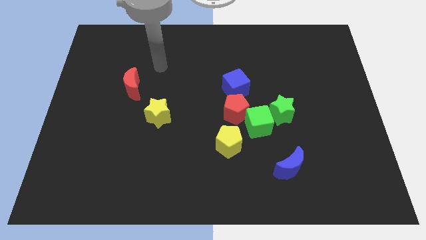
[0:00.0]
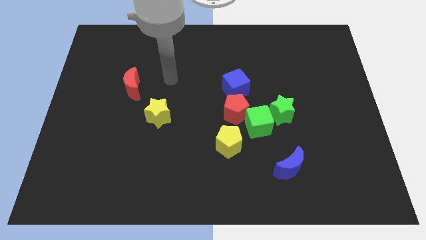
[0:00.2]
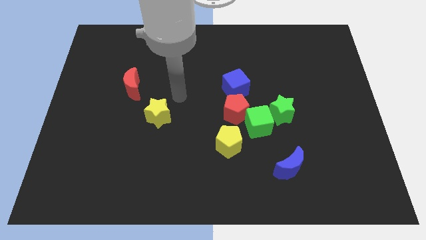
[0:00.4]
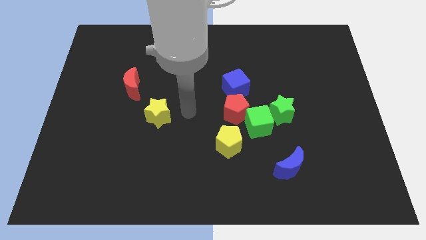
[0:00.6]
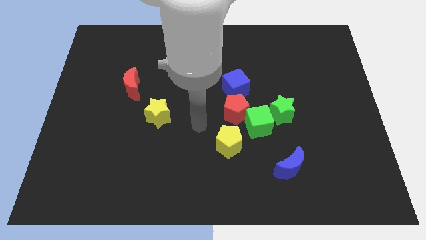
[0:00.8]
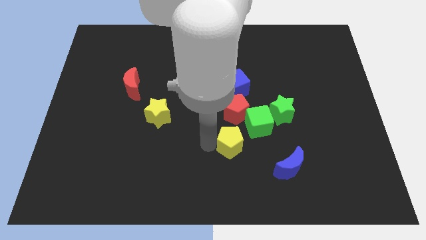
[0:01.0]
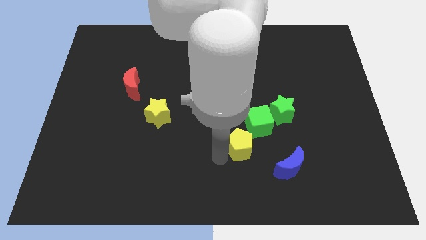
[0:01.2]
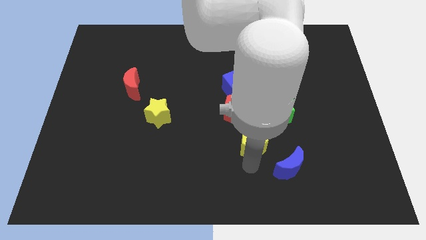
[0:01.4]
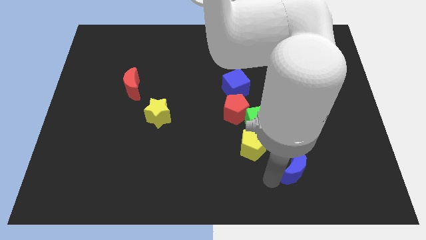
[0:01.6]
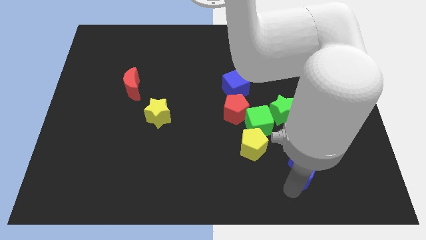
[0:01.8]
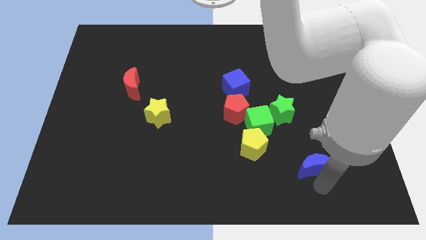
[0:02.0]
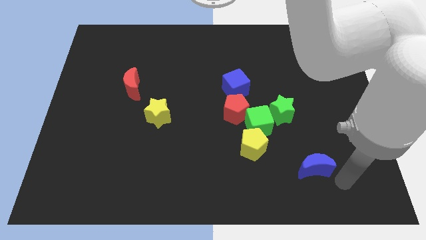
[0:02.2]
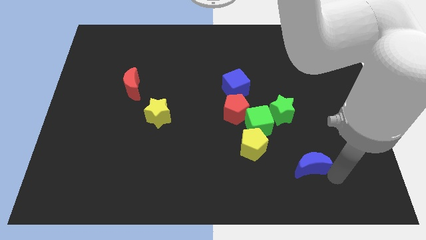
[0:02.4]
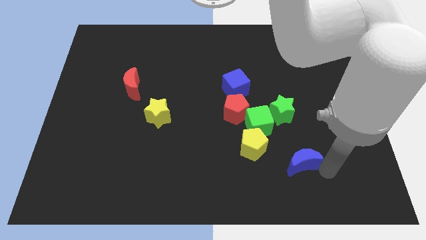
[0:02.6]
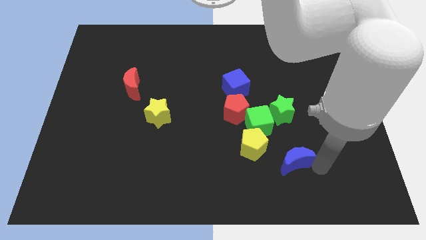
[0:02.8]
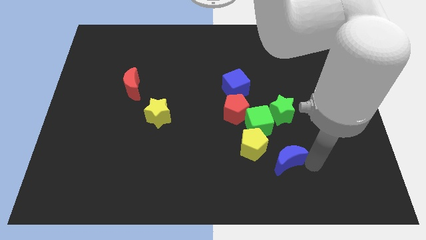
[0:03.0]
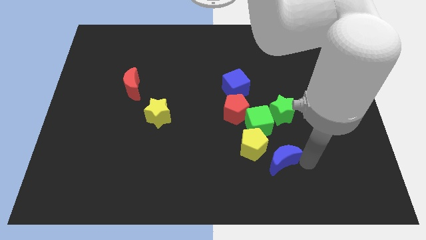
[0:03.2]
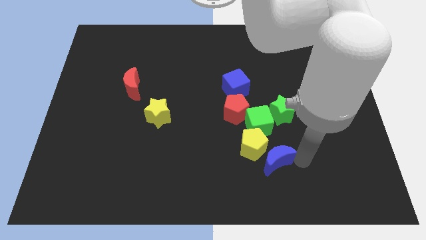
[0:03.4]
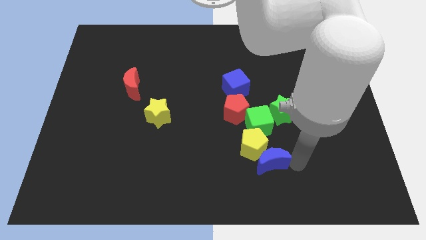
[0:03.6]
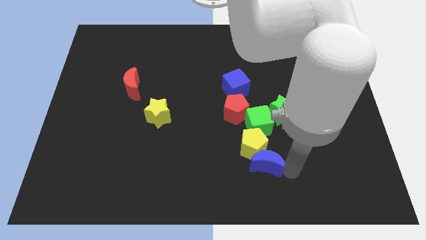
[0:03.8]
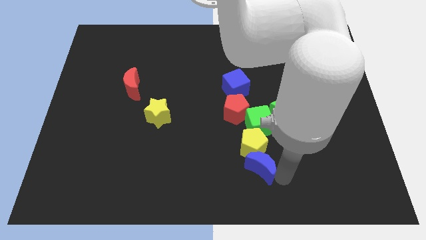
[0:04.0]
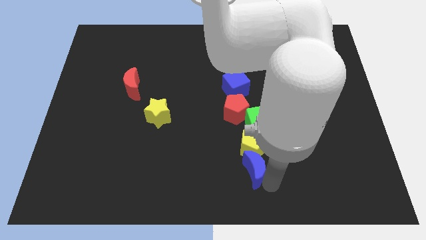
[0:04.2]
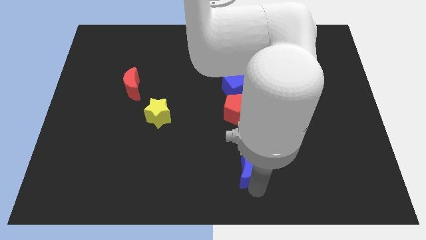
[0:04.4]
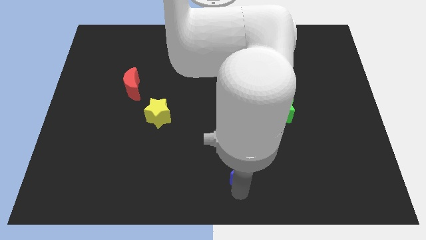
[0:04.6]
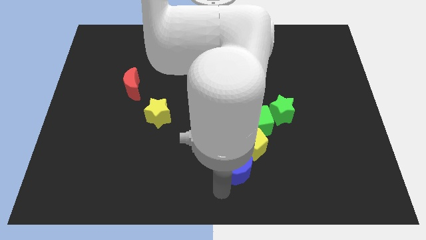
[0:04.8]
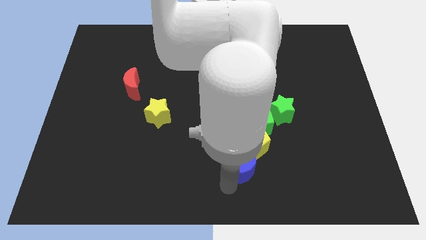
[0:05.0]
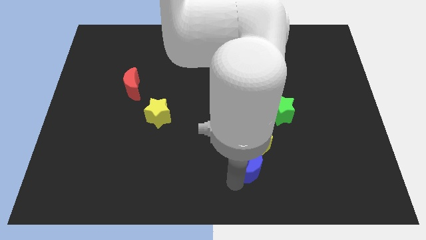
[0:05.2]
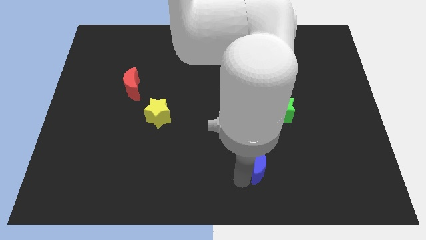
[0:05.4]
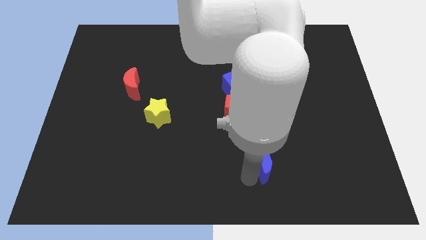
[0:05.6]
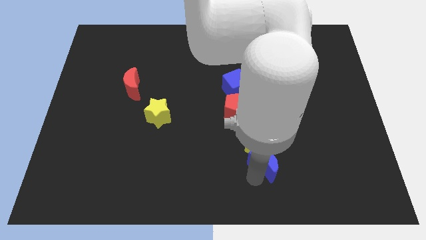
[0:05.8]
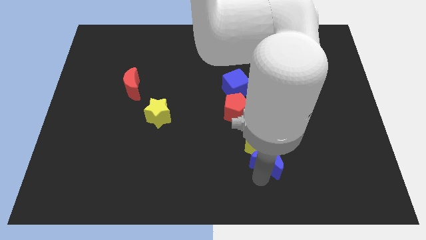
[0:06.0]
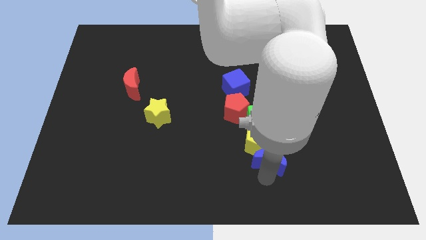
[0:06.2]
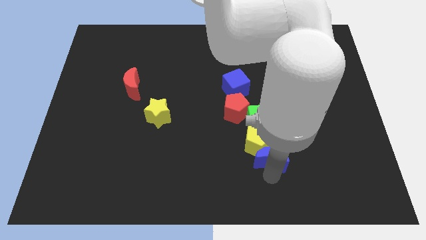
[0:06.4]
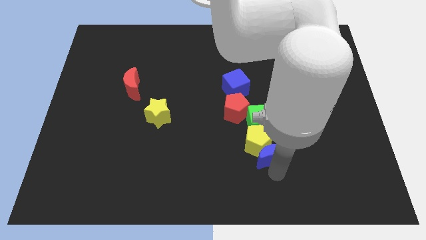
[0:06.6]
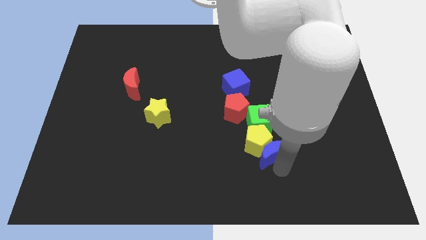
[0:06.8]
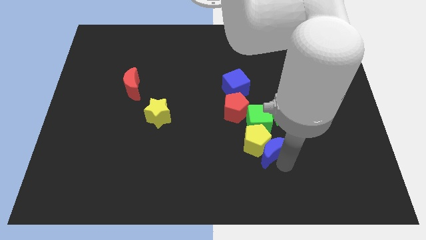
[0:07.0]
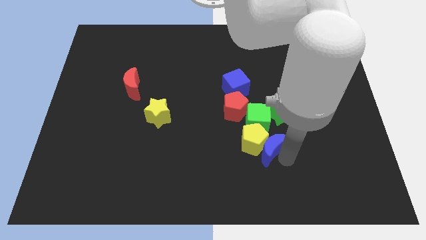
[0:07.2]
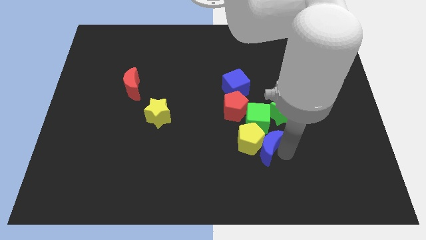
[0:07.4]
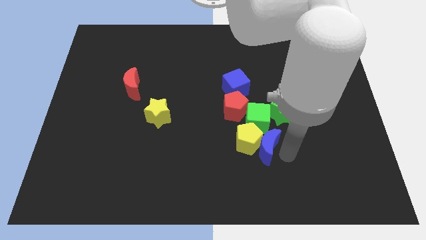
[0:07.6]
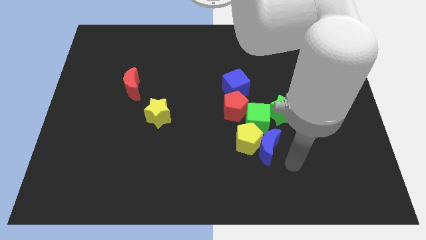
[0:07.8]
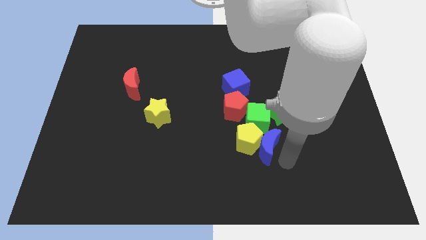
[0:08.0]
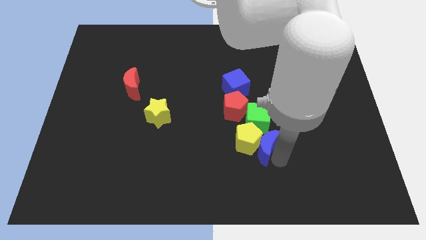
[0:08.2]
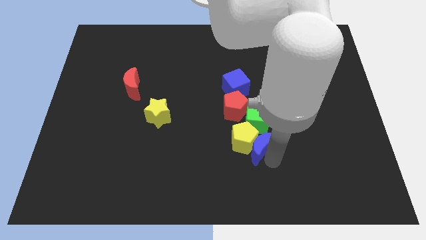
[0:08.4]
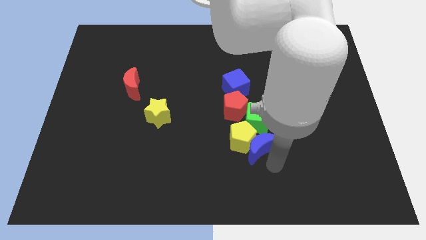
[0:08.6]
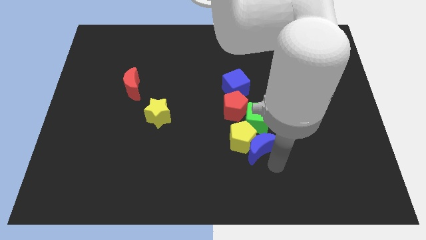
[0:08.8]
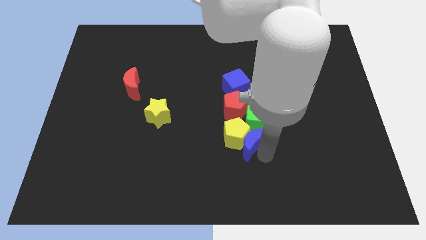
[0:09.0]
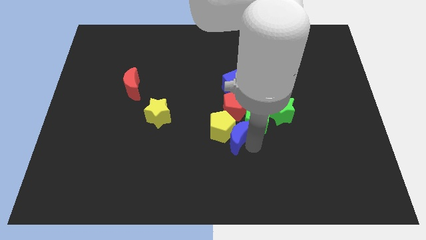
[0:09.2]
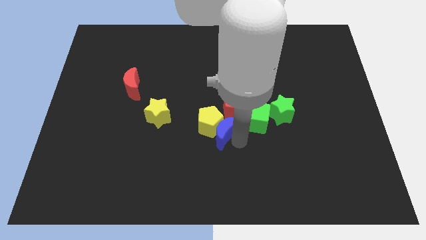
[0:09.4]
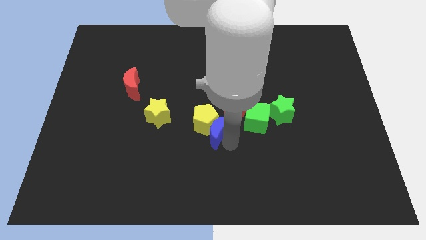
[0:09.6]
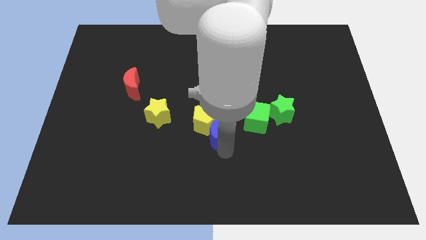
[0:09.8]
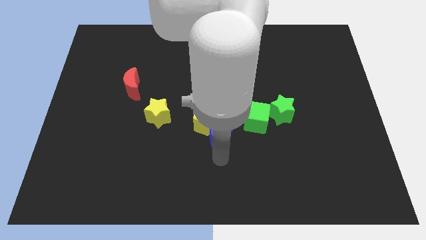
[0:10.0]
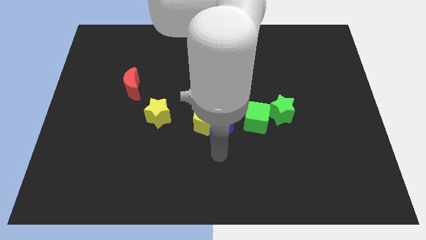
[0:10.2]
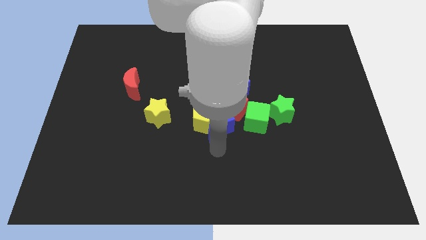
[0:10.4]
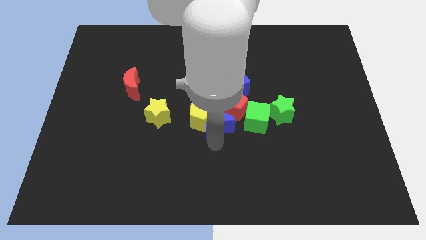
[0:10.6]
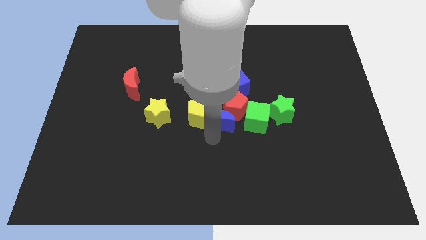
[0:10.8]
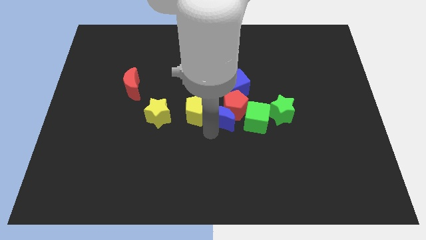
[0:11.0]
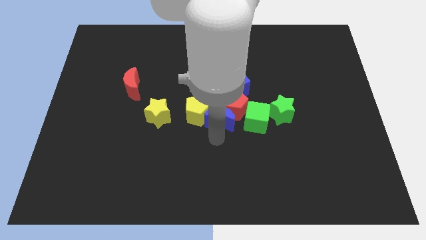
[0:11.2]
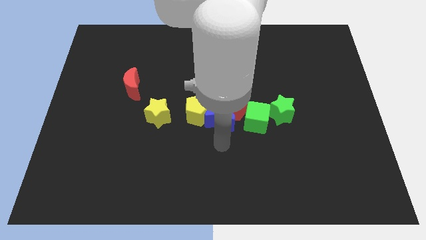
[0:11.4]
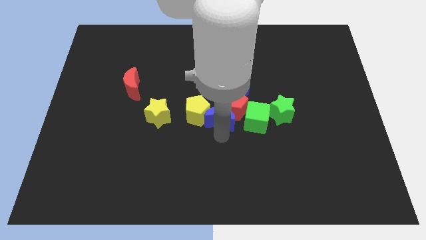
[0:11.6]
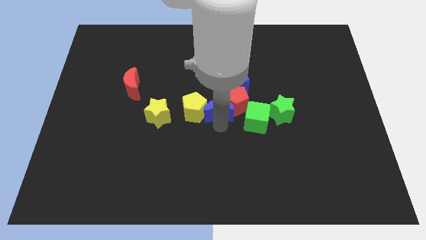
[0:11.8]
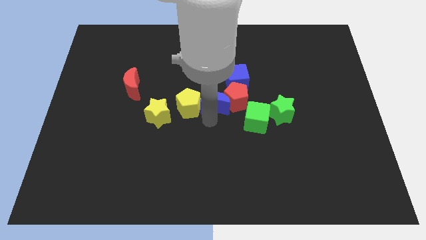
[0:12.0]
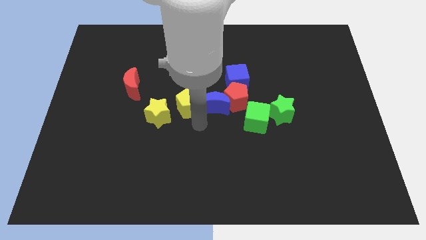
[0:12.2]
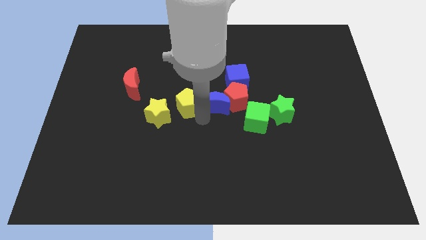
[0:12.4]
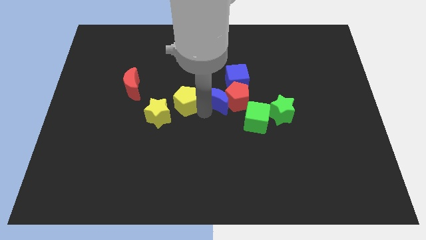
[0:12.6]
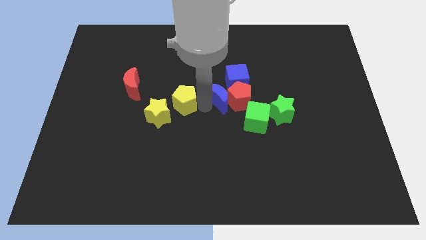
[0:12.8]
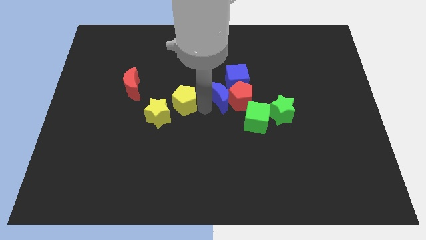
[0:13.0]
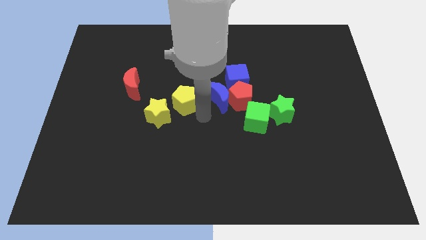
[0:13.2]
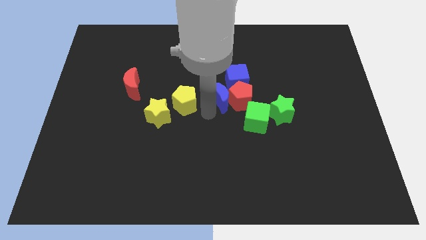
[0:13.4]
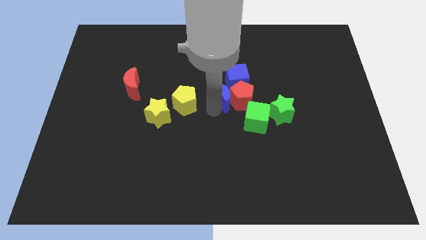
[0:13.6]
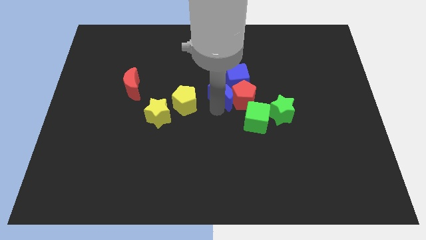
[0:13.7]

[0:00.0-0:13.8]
move the blue moon close to the blue cube
